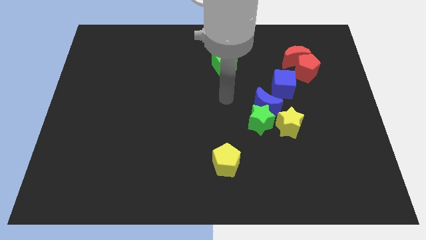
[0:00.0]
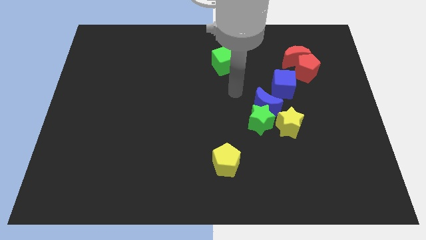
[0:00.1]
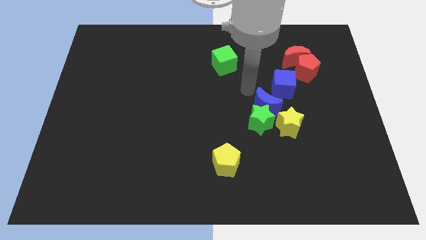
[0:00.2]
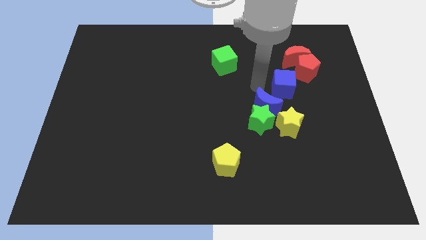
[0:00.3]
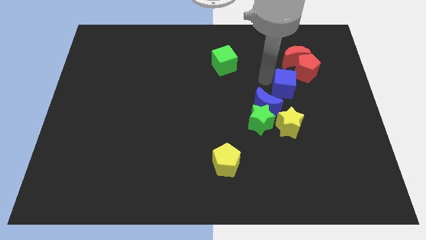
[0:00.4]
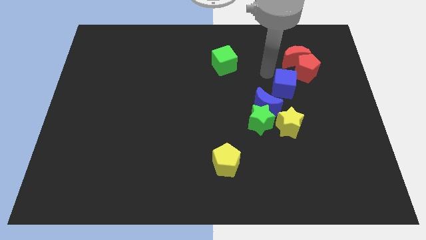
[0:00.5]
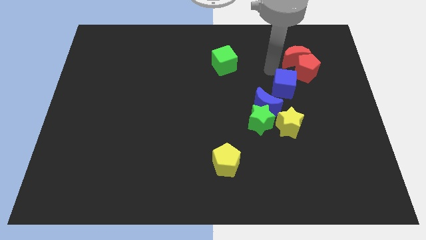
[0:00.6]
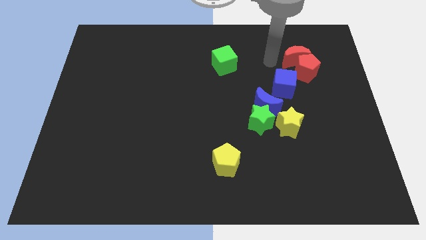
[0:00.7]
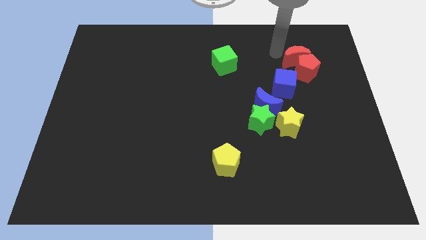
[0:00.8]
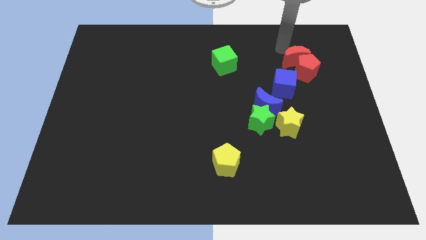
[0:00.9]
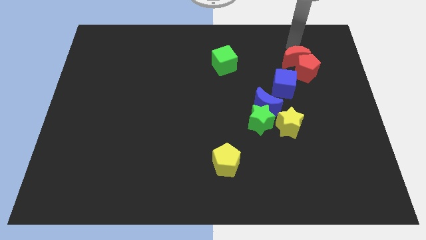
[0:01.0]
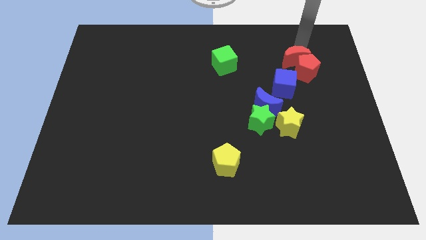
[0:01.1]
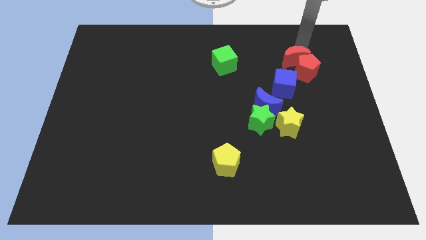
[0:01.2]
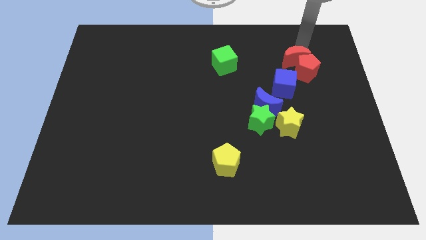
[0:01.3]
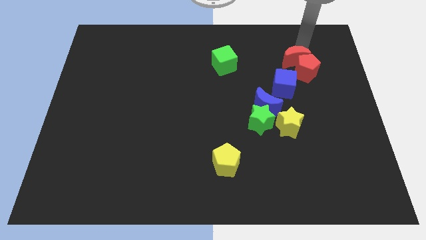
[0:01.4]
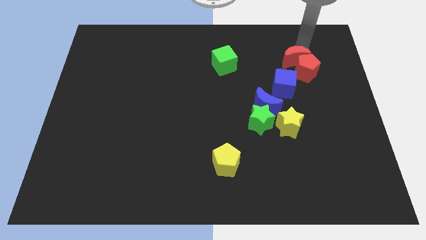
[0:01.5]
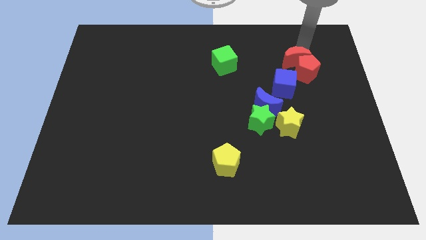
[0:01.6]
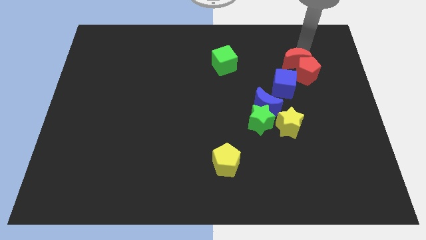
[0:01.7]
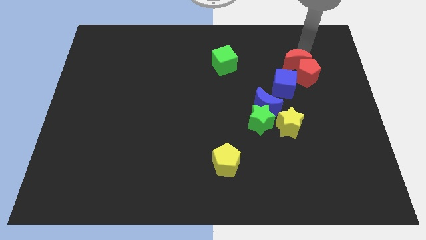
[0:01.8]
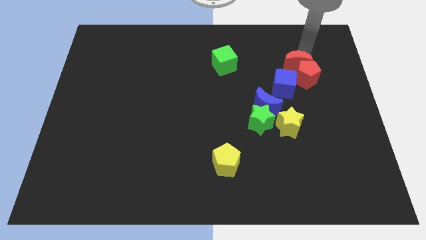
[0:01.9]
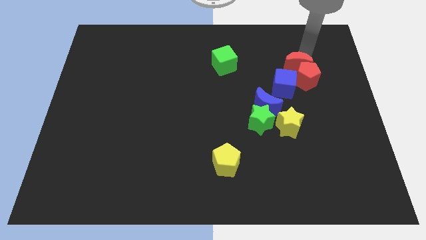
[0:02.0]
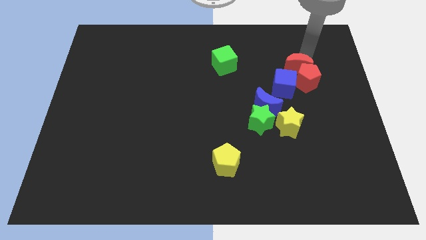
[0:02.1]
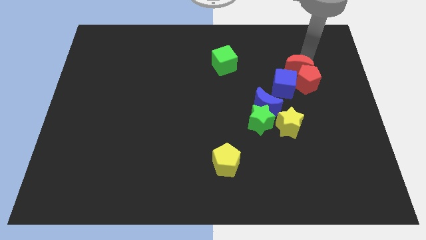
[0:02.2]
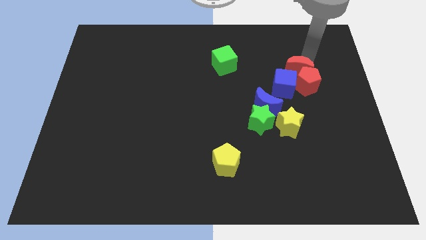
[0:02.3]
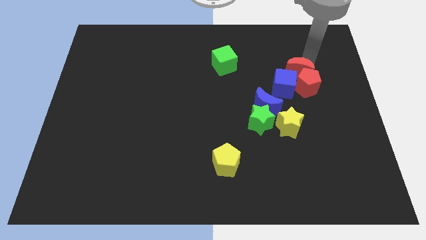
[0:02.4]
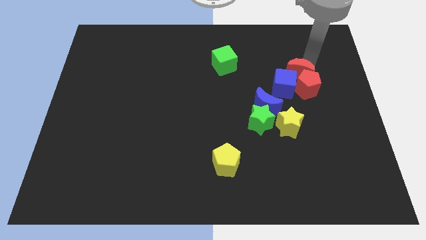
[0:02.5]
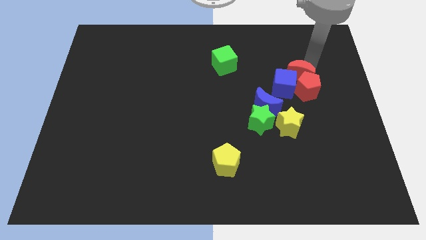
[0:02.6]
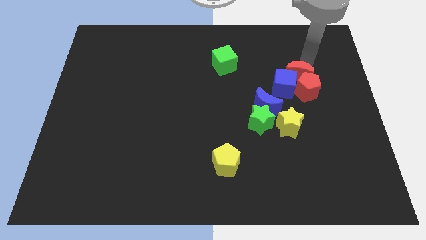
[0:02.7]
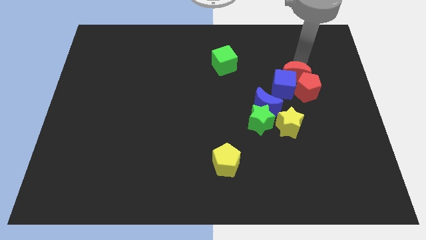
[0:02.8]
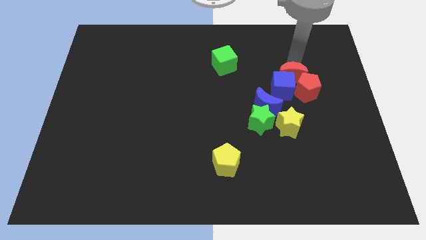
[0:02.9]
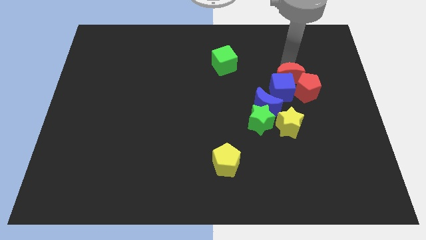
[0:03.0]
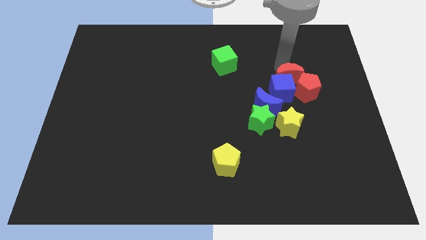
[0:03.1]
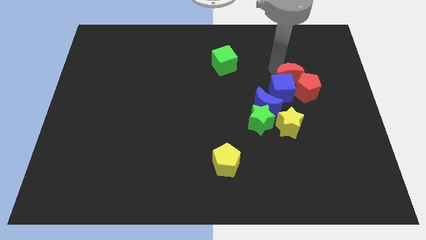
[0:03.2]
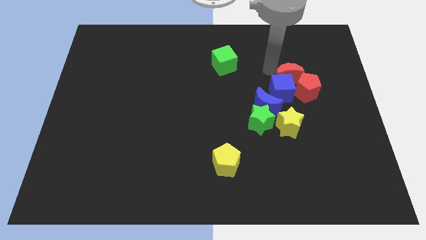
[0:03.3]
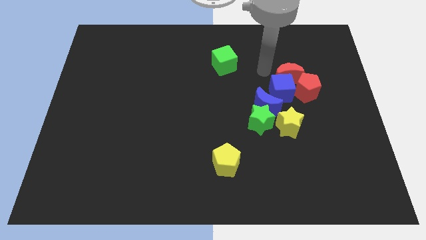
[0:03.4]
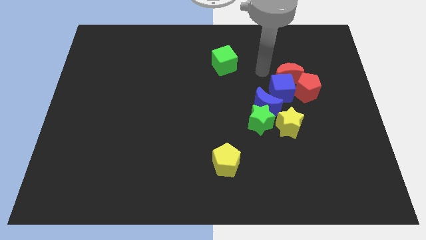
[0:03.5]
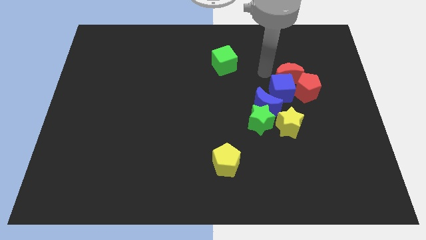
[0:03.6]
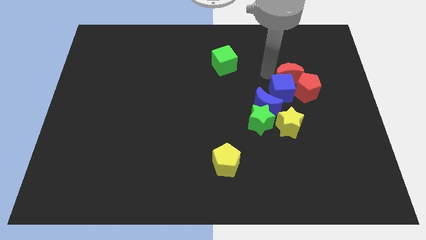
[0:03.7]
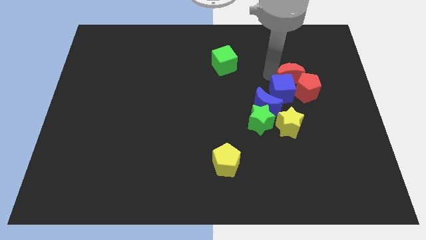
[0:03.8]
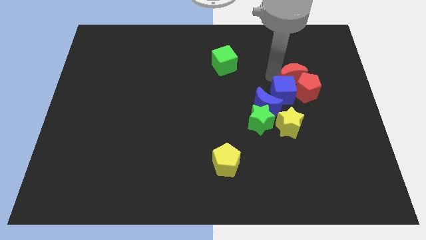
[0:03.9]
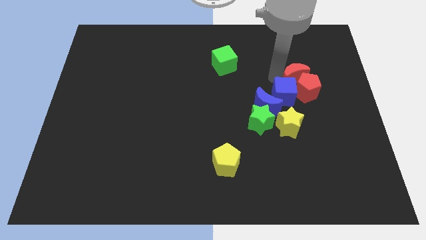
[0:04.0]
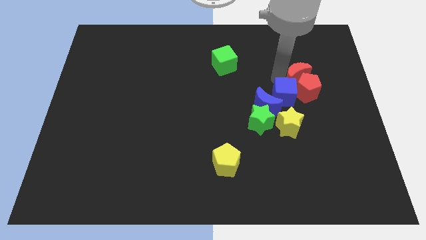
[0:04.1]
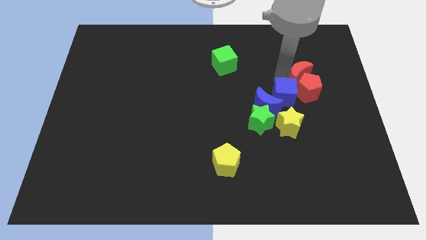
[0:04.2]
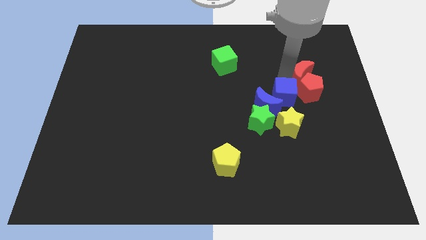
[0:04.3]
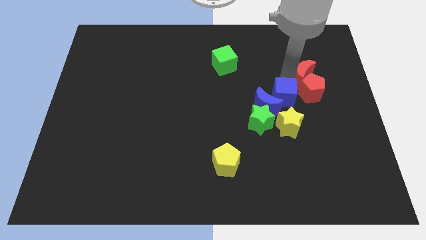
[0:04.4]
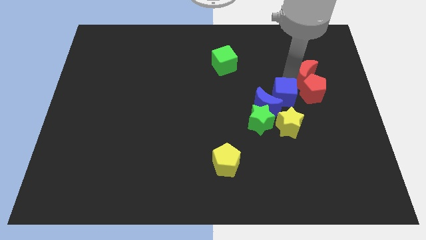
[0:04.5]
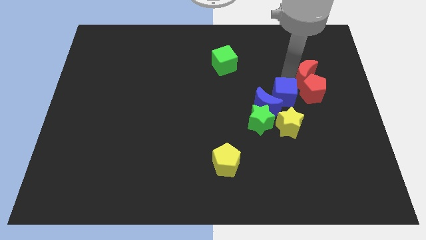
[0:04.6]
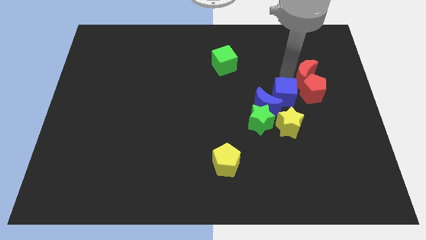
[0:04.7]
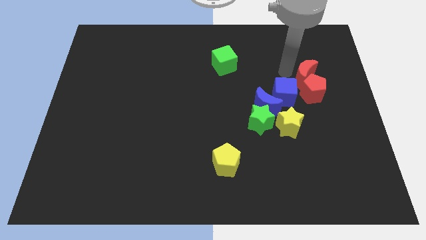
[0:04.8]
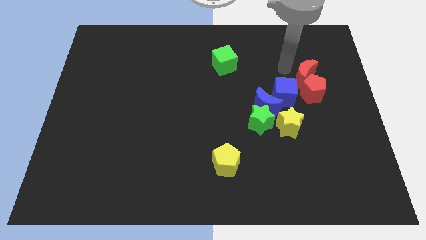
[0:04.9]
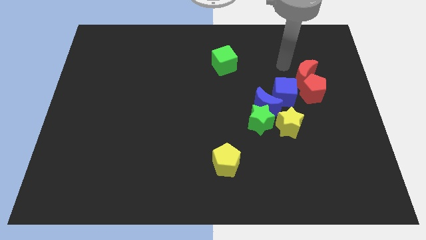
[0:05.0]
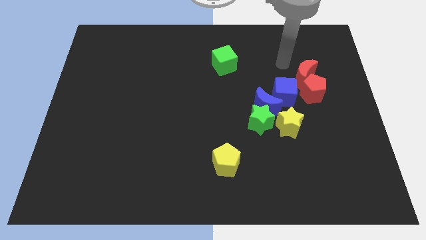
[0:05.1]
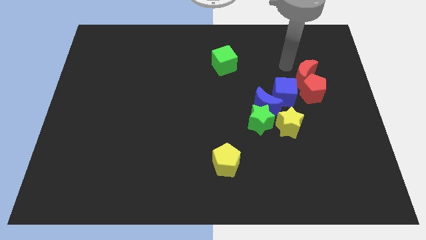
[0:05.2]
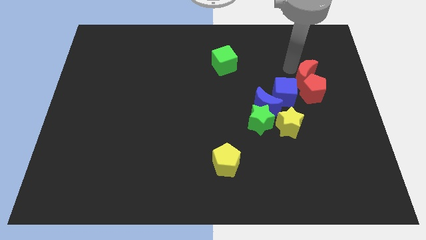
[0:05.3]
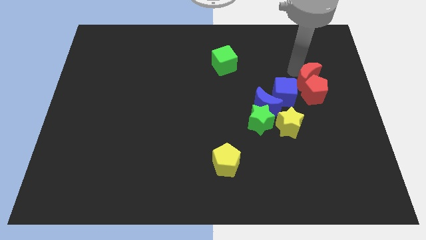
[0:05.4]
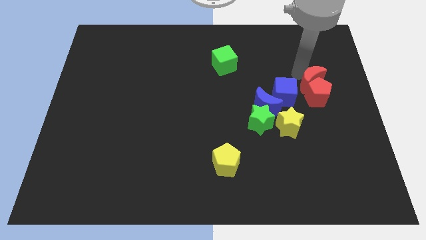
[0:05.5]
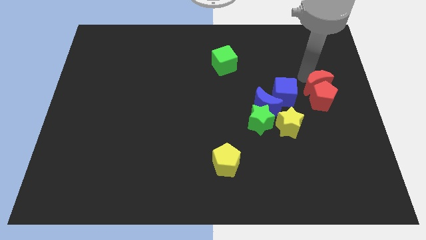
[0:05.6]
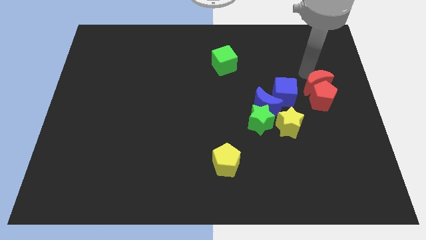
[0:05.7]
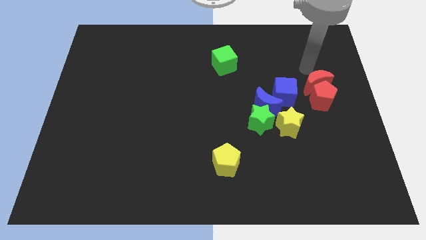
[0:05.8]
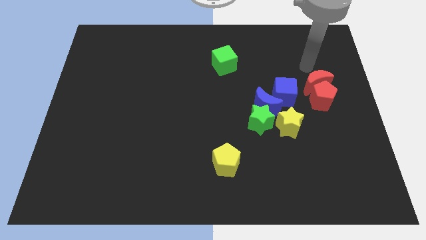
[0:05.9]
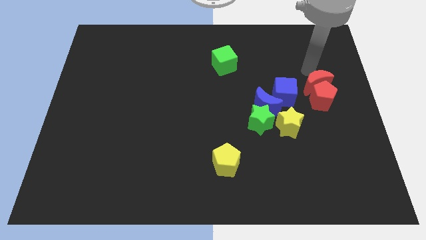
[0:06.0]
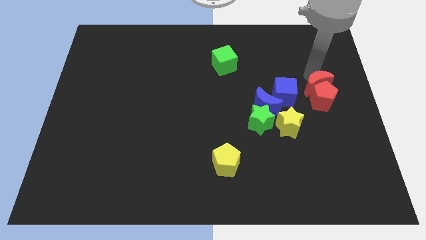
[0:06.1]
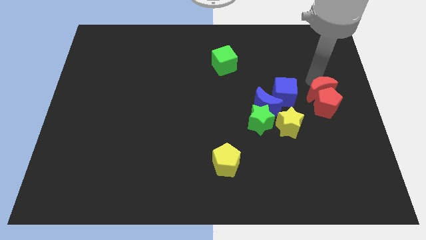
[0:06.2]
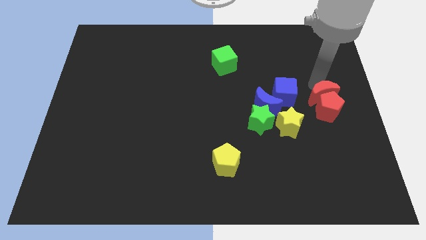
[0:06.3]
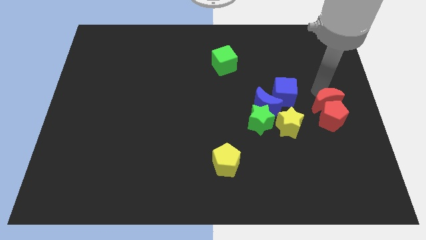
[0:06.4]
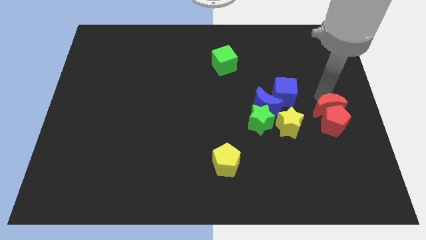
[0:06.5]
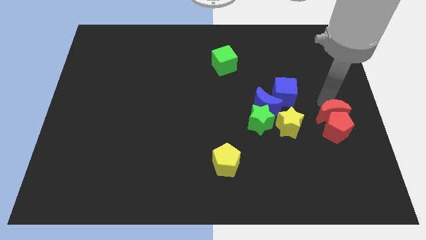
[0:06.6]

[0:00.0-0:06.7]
push the red moon right of the yellow star

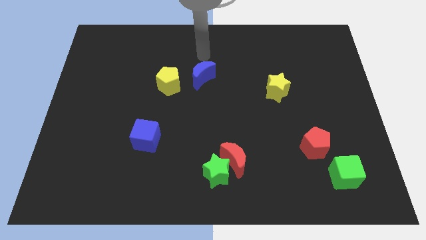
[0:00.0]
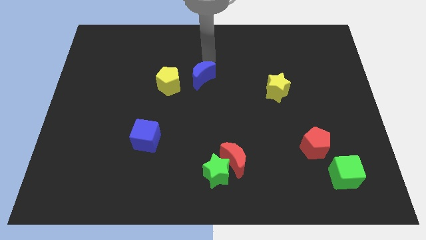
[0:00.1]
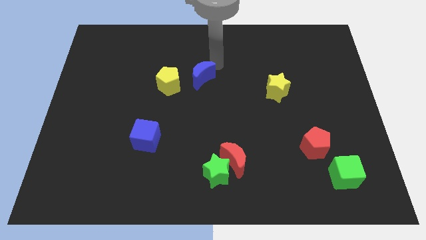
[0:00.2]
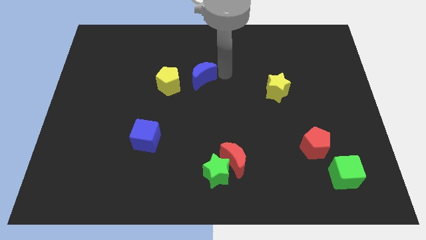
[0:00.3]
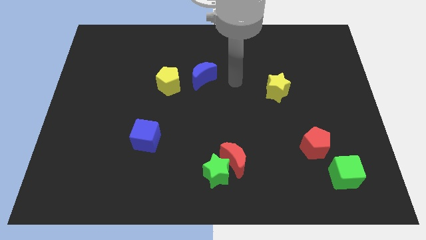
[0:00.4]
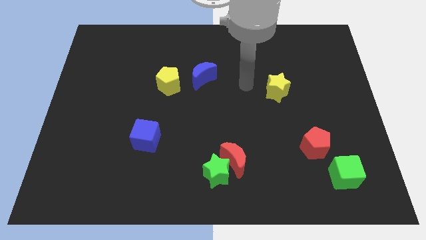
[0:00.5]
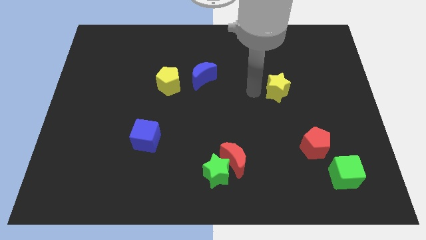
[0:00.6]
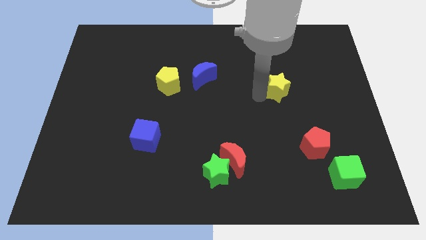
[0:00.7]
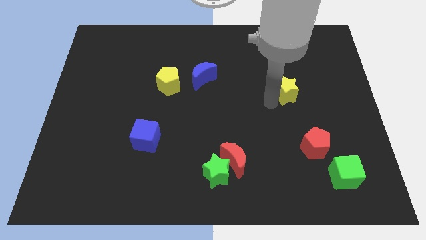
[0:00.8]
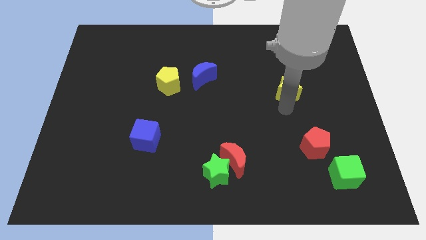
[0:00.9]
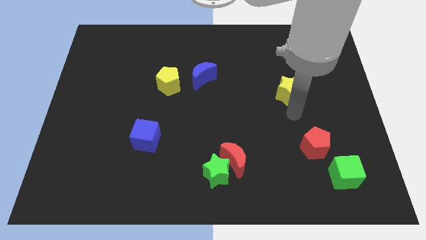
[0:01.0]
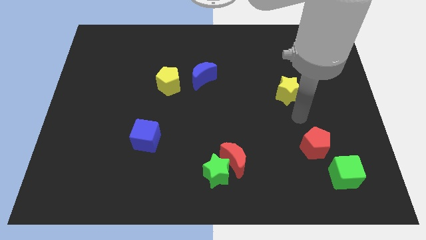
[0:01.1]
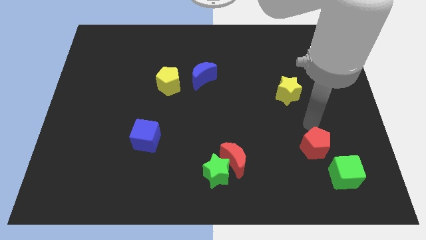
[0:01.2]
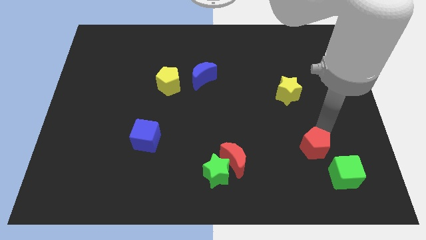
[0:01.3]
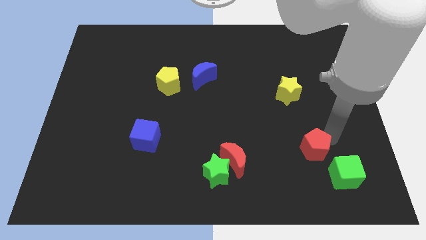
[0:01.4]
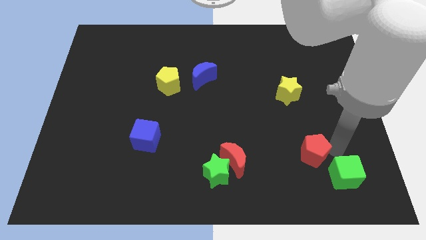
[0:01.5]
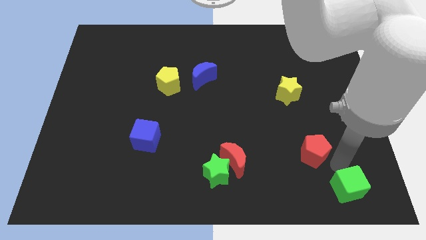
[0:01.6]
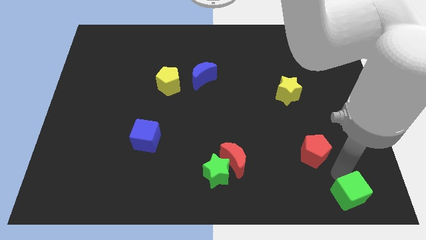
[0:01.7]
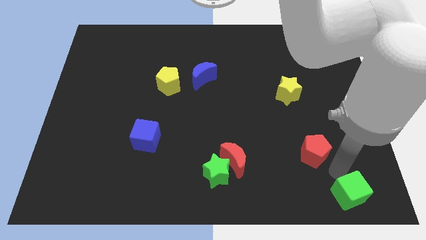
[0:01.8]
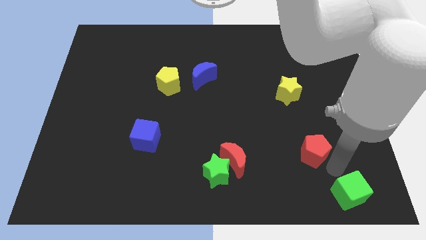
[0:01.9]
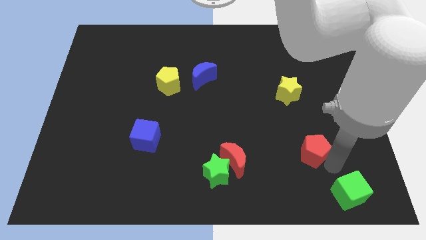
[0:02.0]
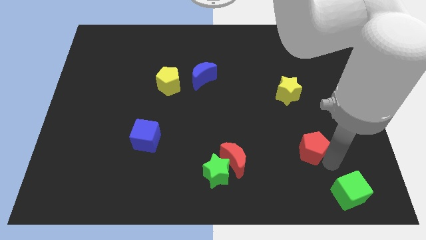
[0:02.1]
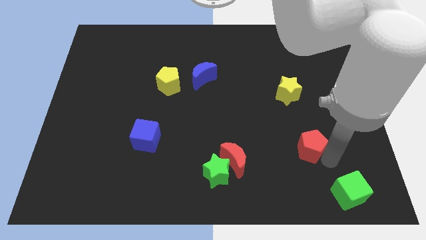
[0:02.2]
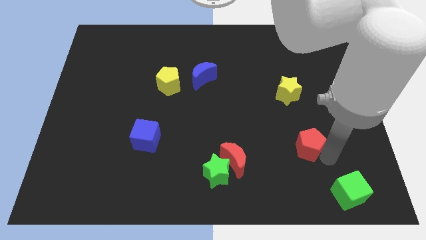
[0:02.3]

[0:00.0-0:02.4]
push the red pentagon to the bottom side of the yellow star
